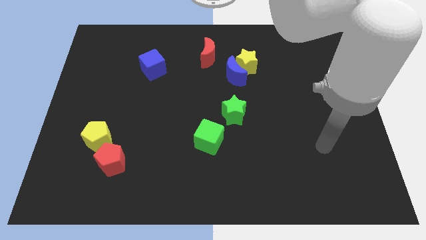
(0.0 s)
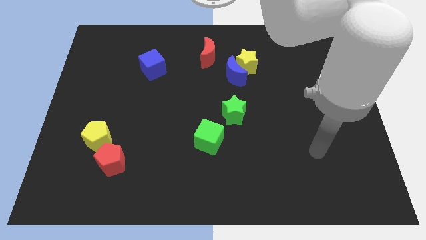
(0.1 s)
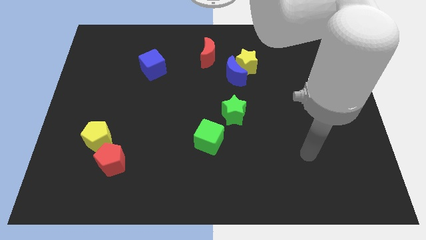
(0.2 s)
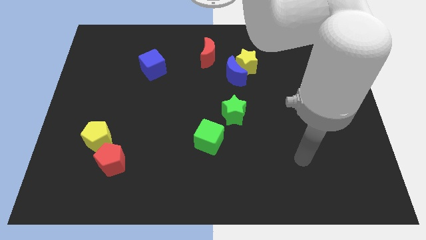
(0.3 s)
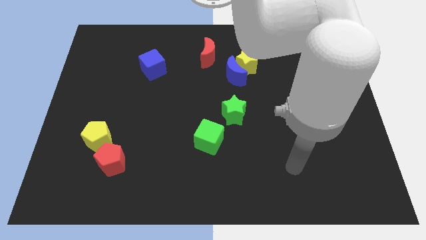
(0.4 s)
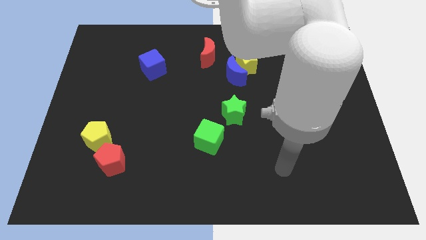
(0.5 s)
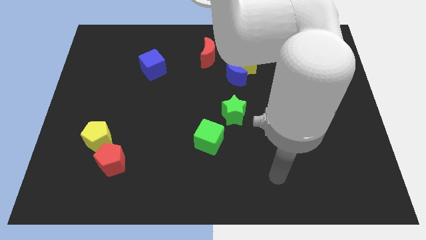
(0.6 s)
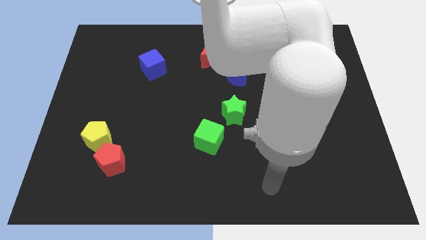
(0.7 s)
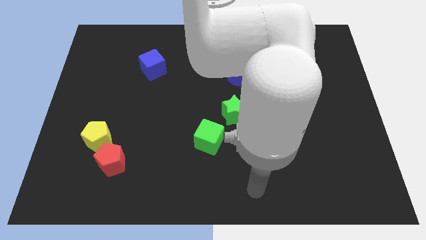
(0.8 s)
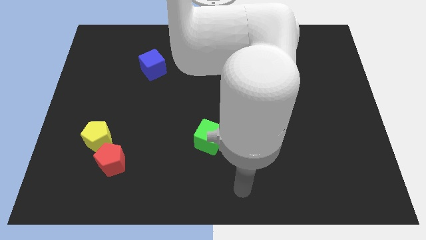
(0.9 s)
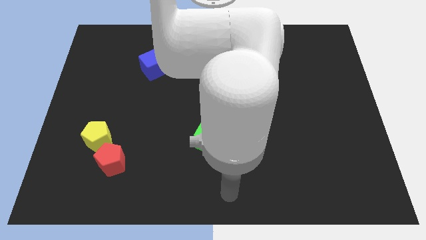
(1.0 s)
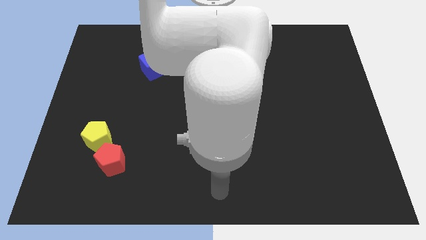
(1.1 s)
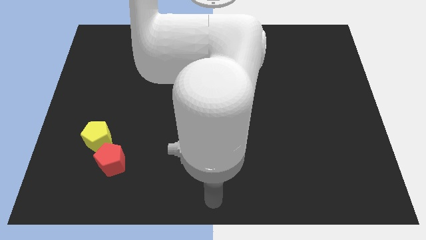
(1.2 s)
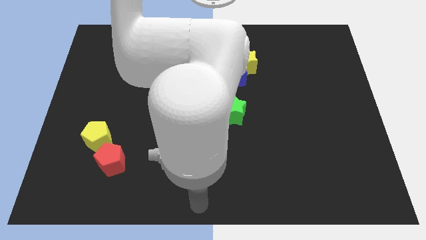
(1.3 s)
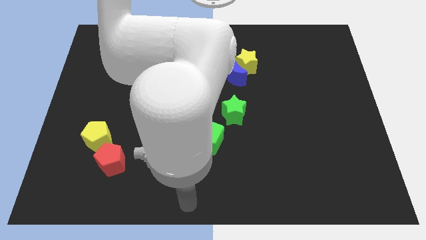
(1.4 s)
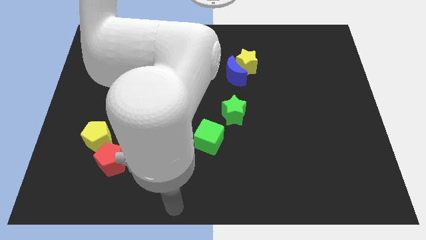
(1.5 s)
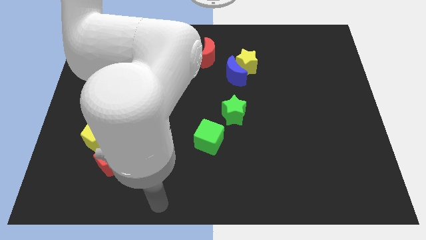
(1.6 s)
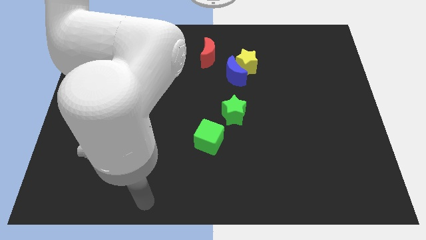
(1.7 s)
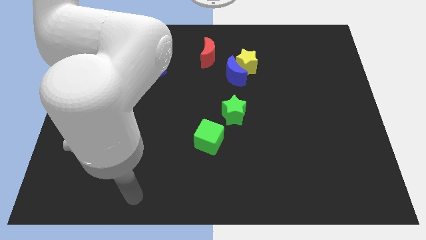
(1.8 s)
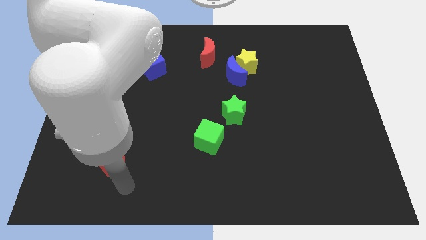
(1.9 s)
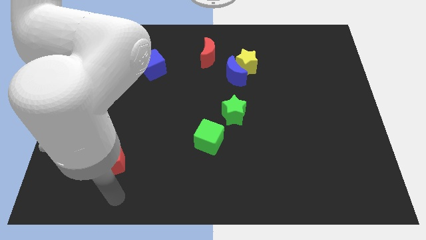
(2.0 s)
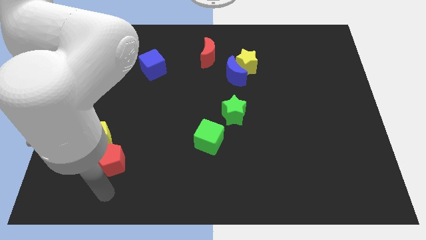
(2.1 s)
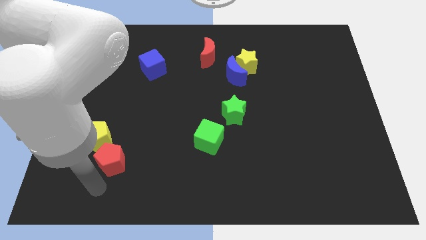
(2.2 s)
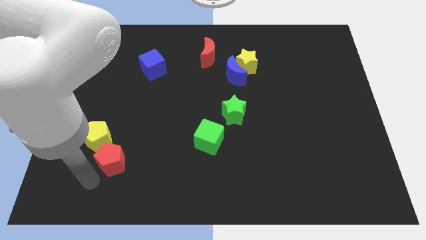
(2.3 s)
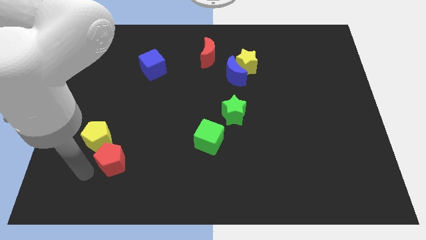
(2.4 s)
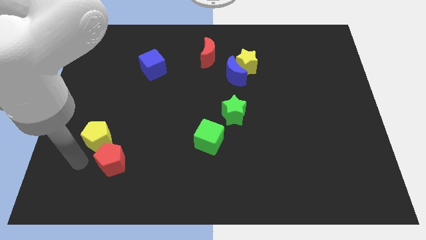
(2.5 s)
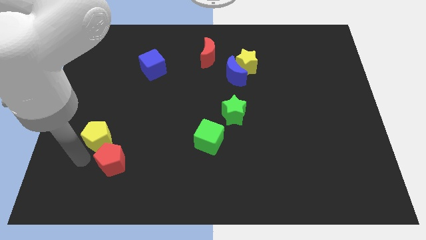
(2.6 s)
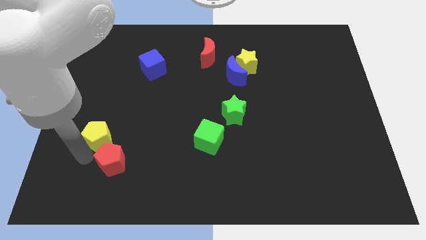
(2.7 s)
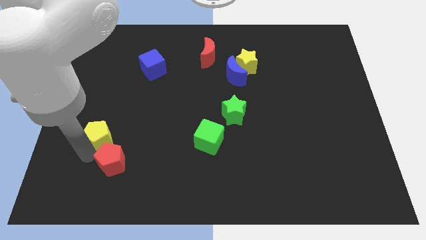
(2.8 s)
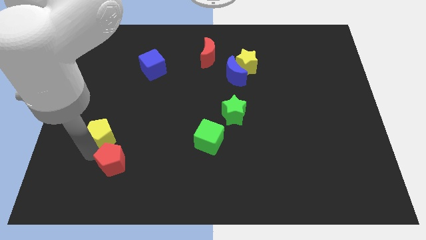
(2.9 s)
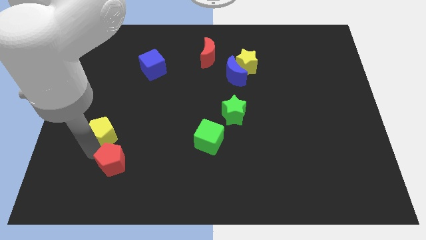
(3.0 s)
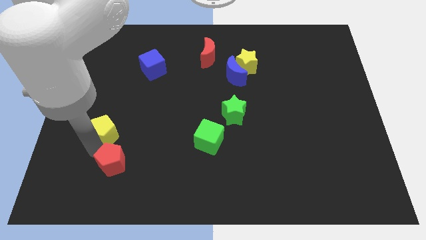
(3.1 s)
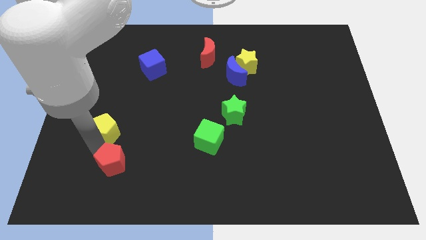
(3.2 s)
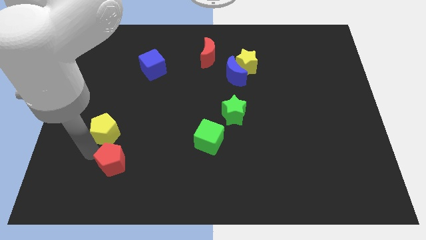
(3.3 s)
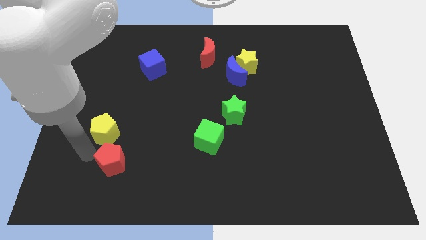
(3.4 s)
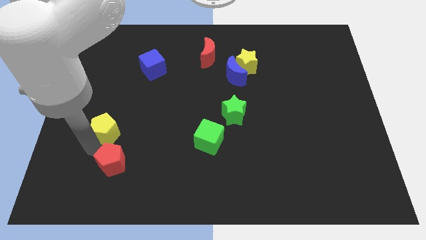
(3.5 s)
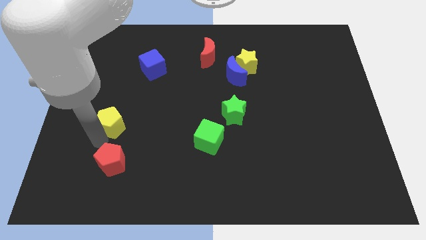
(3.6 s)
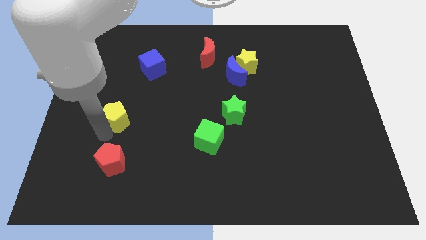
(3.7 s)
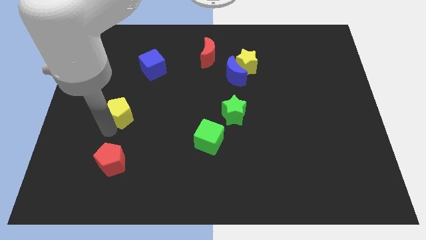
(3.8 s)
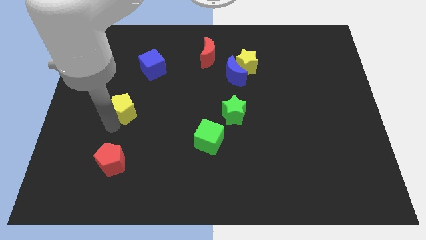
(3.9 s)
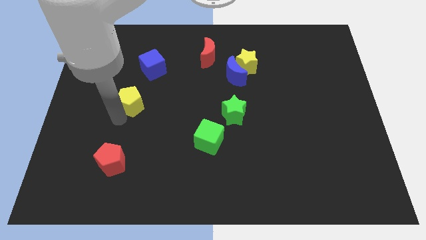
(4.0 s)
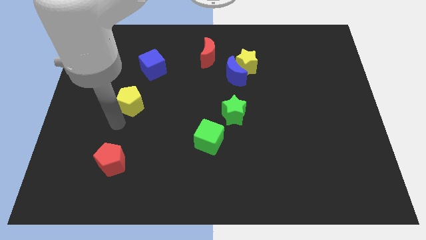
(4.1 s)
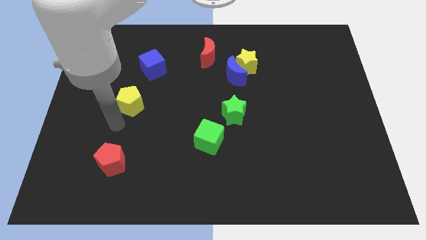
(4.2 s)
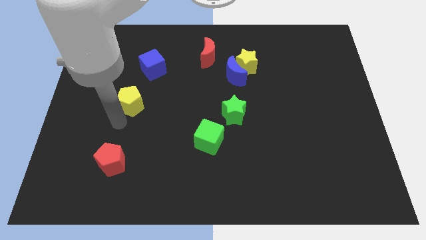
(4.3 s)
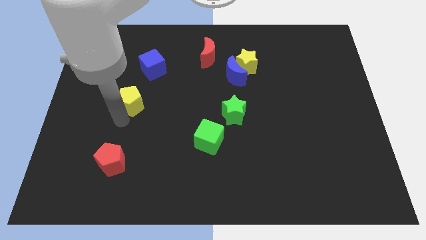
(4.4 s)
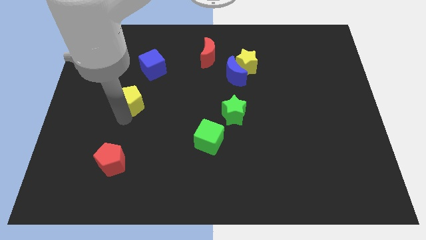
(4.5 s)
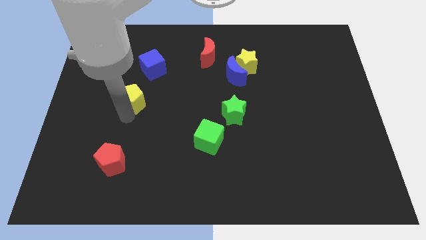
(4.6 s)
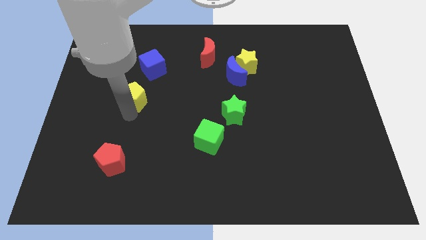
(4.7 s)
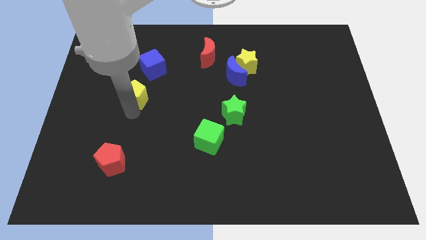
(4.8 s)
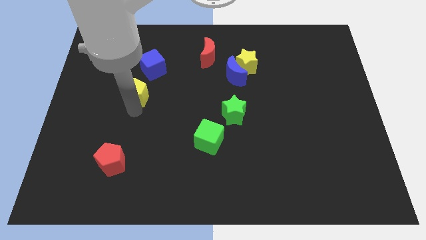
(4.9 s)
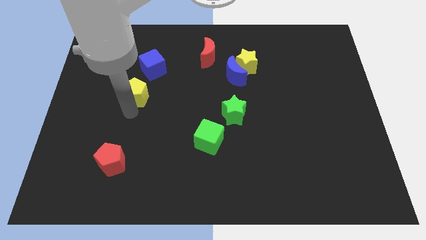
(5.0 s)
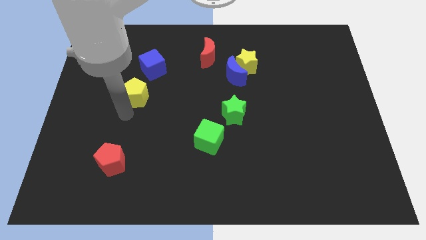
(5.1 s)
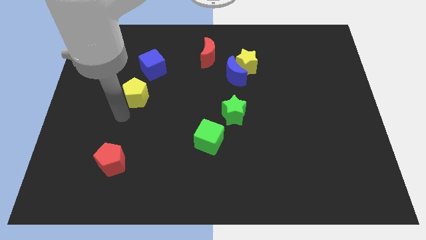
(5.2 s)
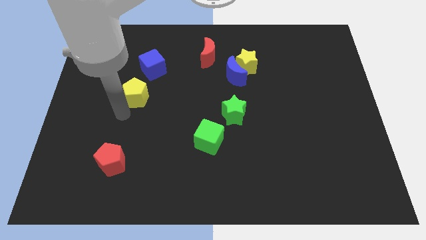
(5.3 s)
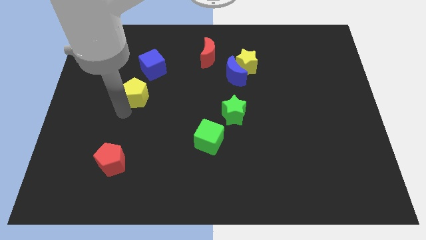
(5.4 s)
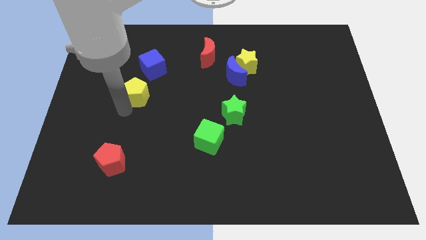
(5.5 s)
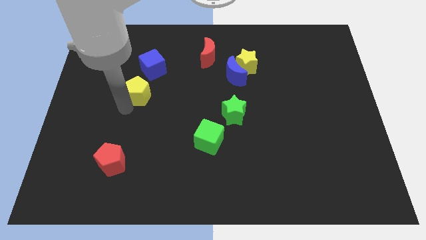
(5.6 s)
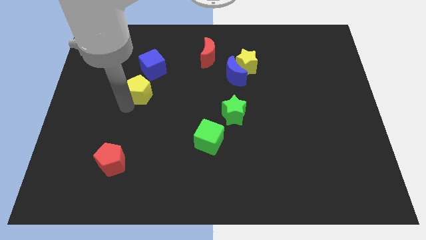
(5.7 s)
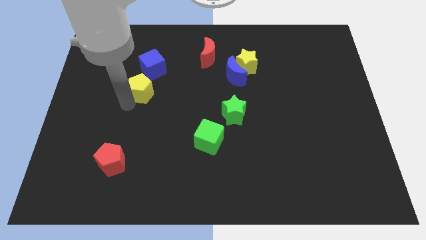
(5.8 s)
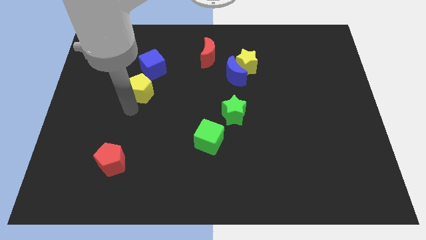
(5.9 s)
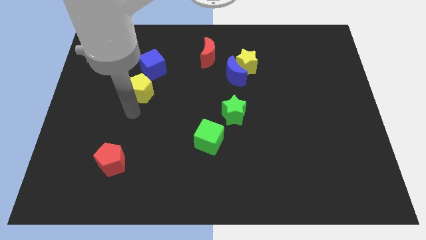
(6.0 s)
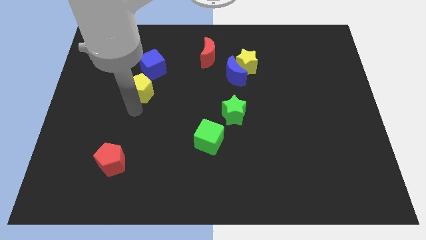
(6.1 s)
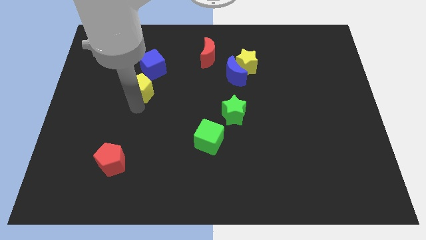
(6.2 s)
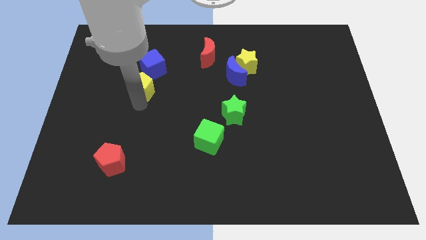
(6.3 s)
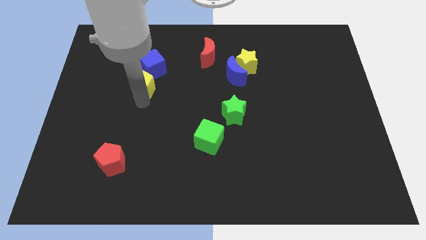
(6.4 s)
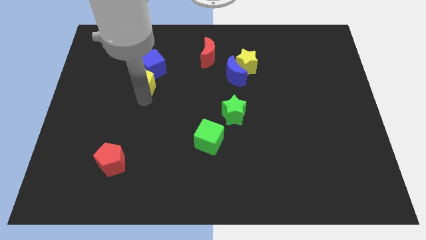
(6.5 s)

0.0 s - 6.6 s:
put the yellow pentagon to the blue cube

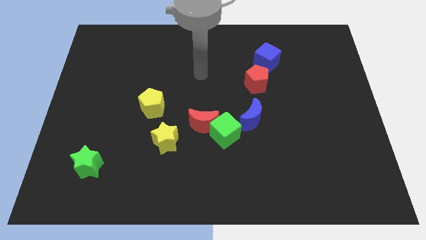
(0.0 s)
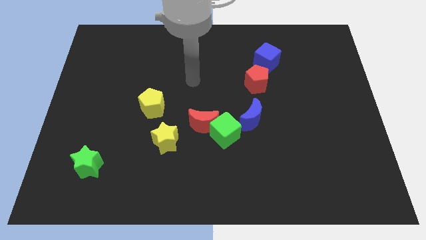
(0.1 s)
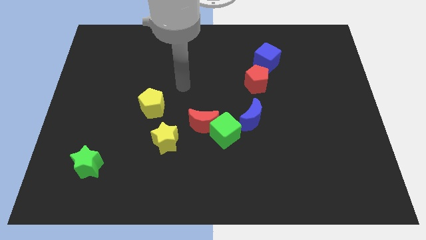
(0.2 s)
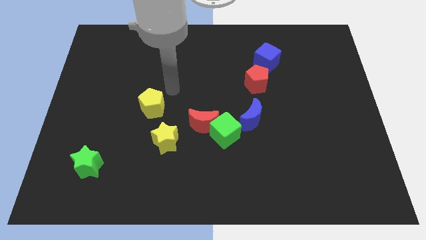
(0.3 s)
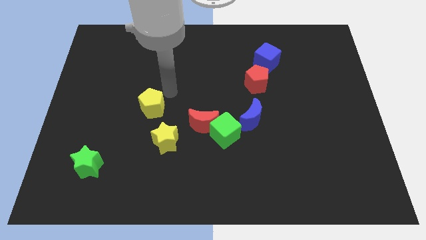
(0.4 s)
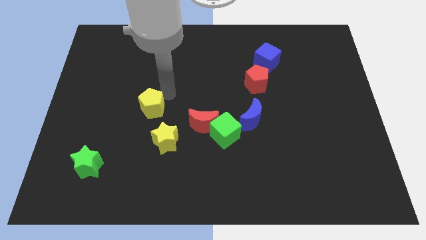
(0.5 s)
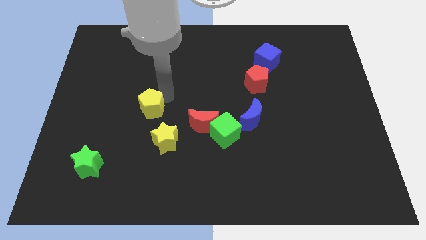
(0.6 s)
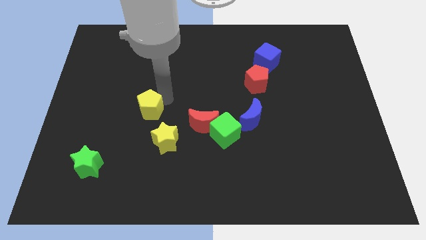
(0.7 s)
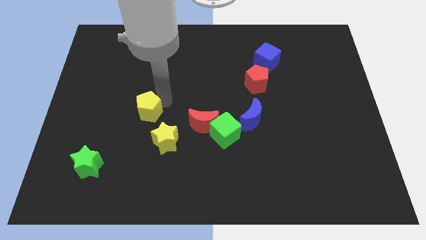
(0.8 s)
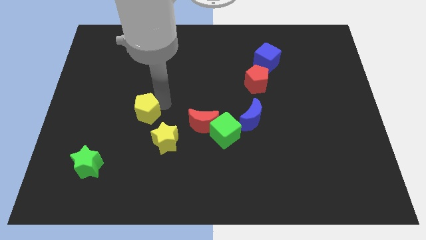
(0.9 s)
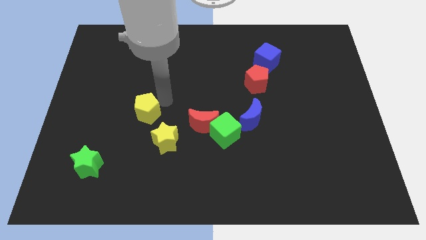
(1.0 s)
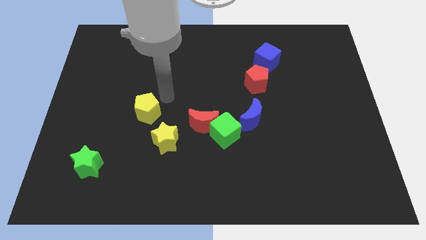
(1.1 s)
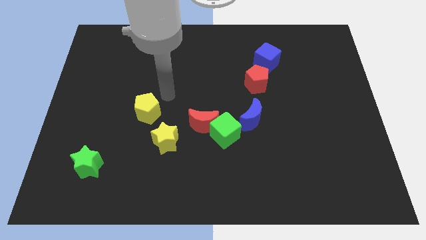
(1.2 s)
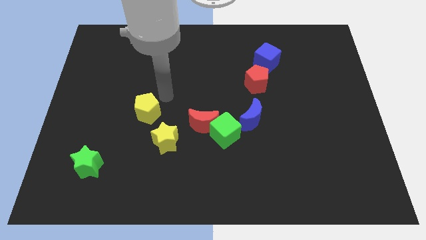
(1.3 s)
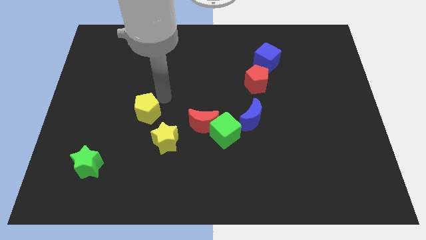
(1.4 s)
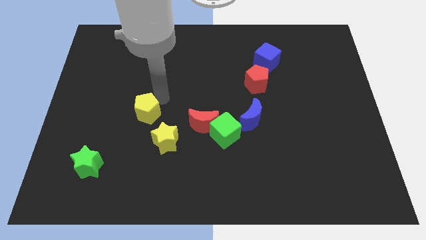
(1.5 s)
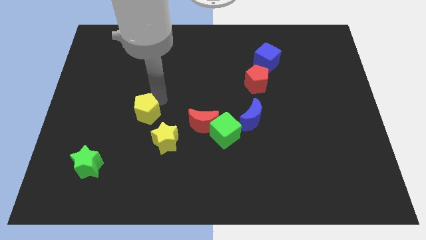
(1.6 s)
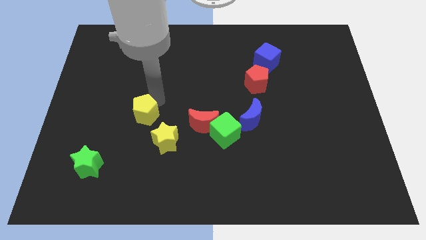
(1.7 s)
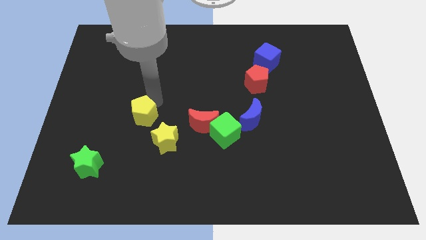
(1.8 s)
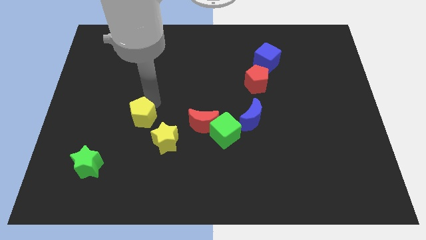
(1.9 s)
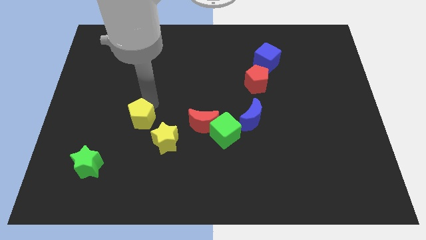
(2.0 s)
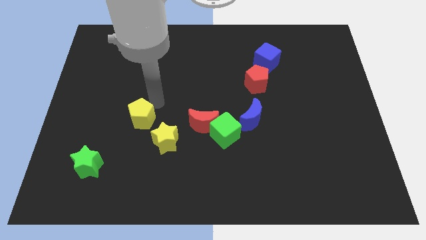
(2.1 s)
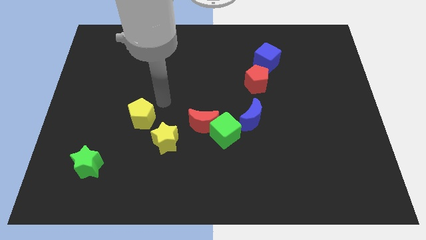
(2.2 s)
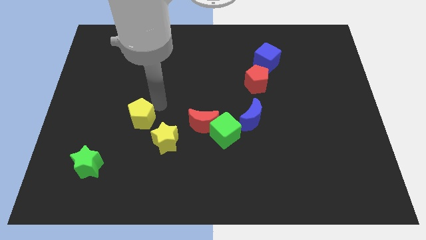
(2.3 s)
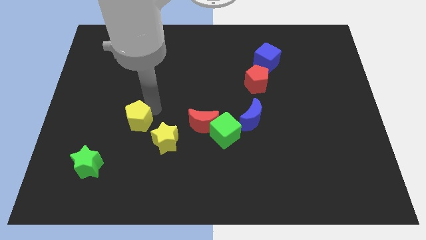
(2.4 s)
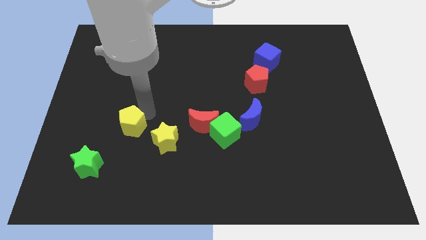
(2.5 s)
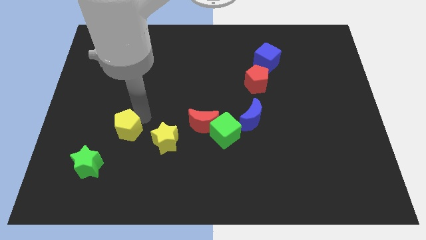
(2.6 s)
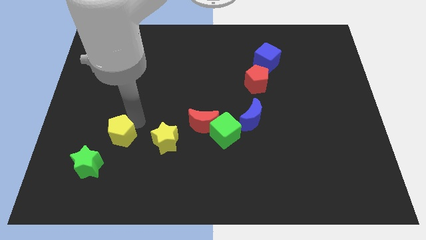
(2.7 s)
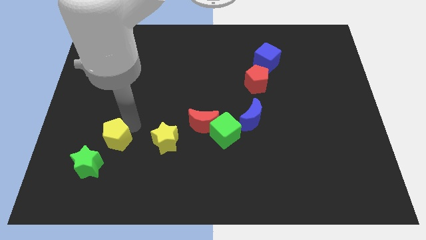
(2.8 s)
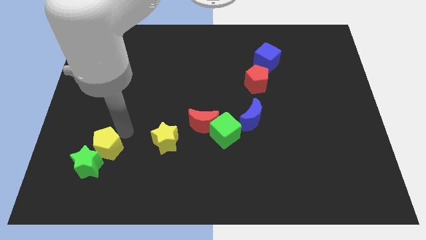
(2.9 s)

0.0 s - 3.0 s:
push the yellow pentagon close to the green star
